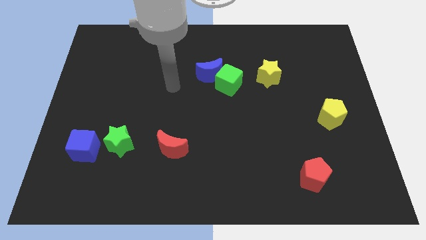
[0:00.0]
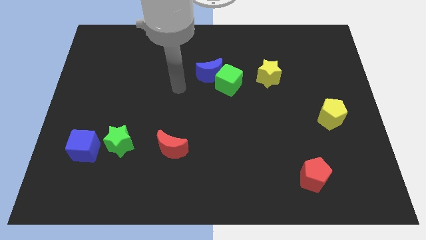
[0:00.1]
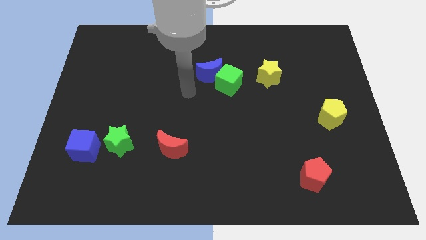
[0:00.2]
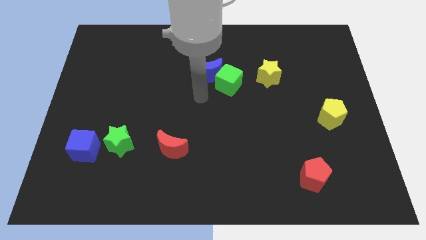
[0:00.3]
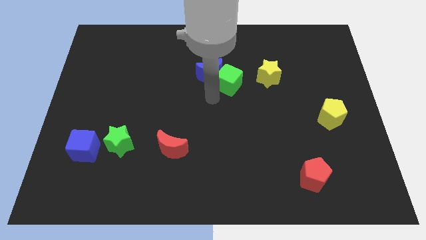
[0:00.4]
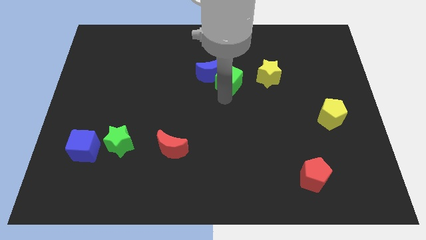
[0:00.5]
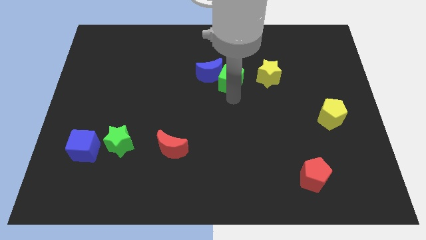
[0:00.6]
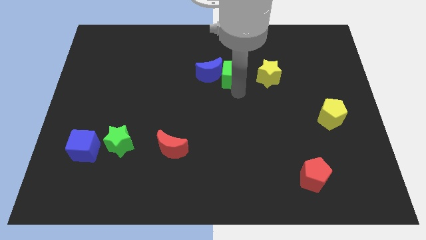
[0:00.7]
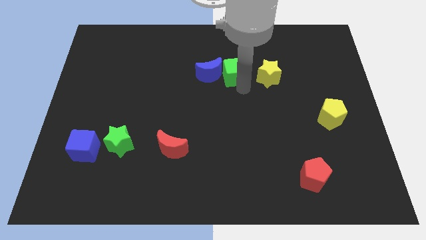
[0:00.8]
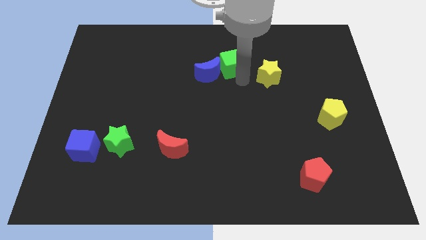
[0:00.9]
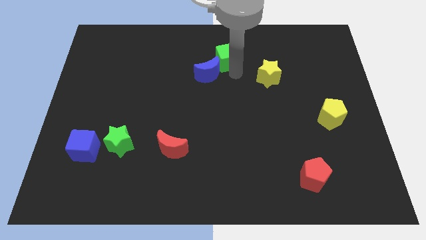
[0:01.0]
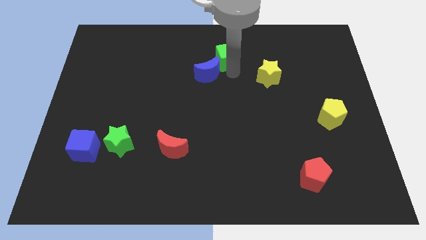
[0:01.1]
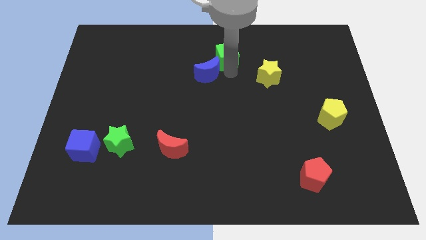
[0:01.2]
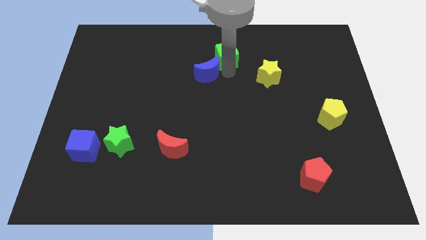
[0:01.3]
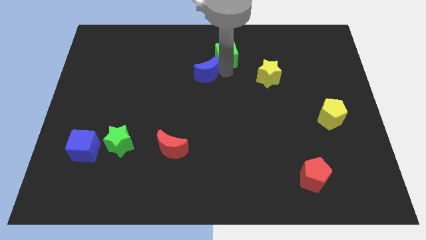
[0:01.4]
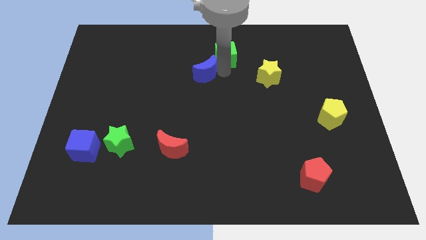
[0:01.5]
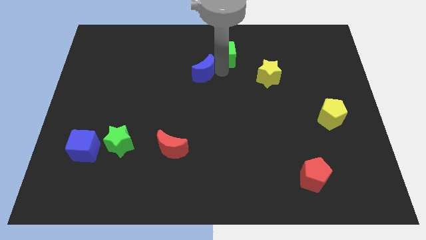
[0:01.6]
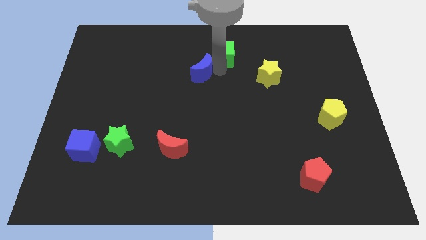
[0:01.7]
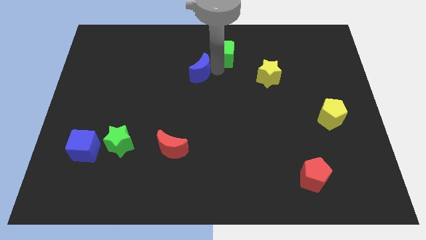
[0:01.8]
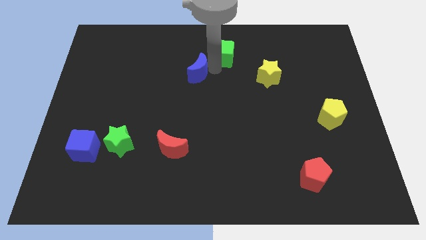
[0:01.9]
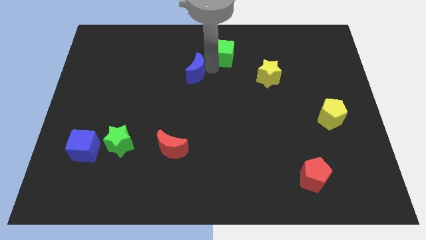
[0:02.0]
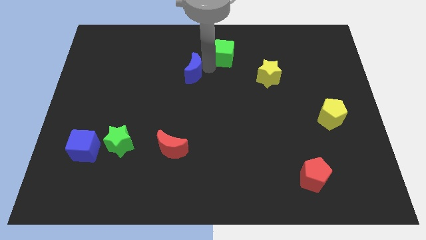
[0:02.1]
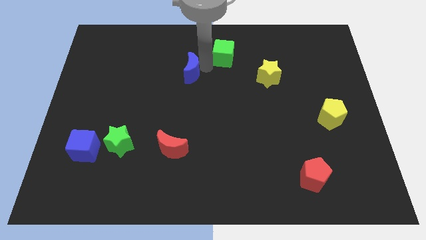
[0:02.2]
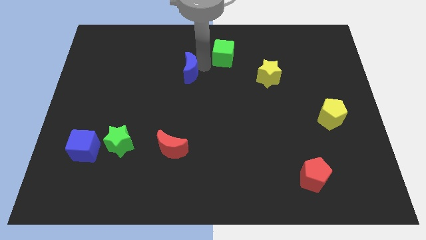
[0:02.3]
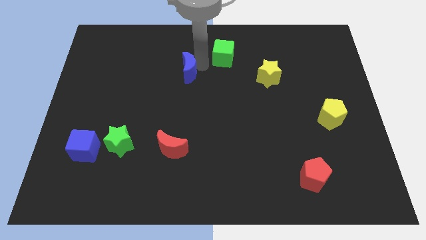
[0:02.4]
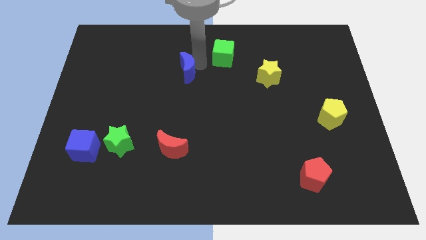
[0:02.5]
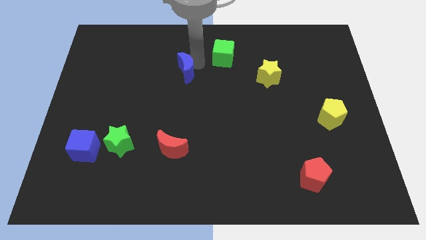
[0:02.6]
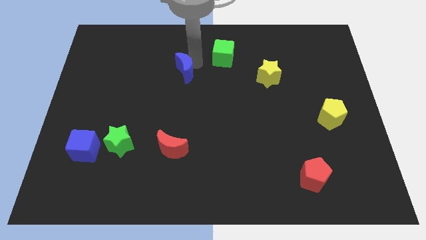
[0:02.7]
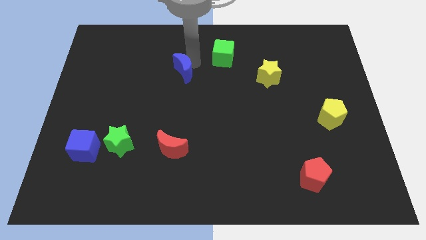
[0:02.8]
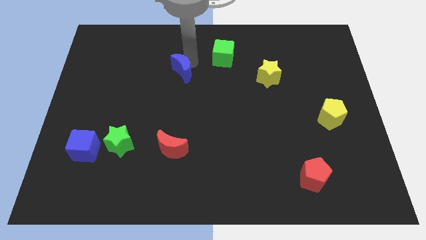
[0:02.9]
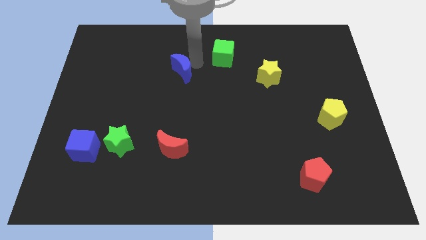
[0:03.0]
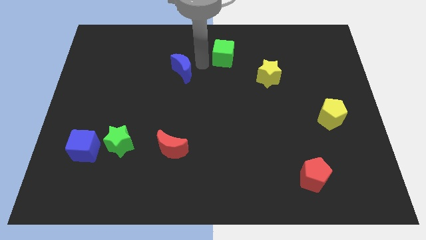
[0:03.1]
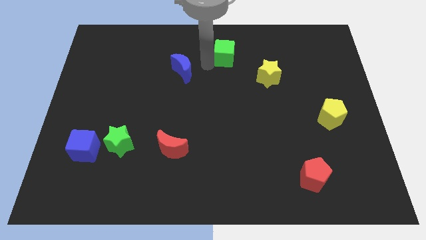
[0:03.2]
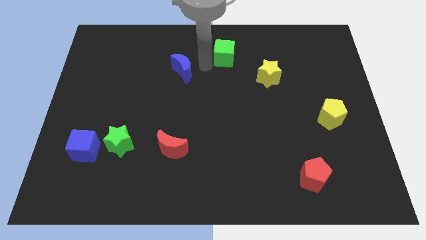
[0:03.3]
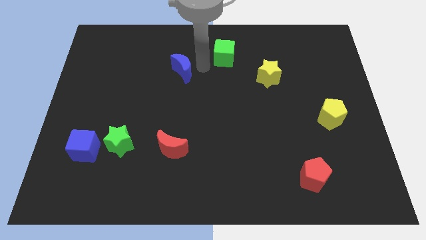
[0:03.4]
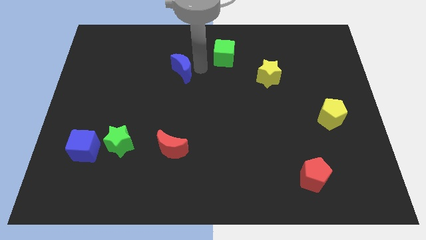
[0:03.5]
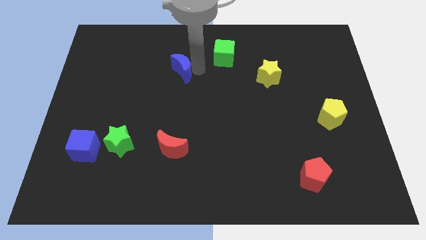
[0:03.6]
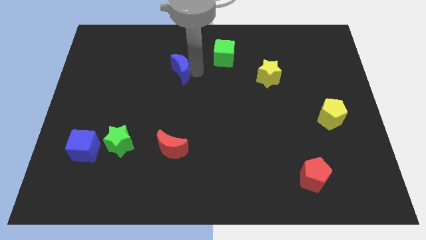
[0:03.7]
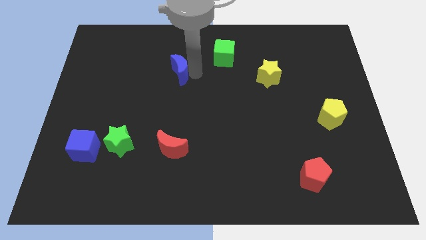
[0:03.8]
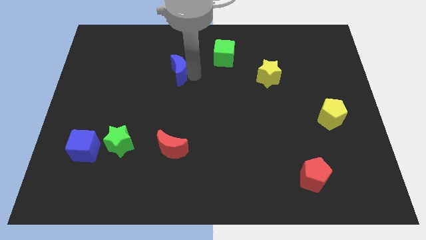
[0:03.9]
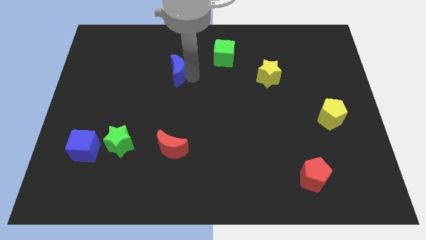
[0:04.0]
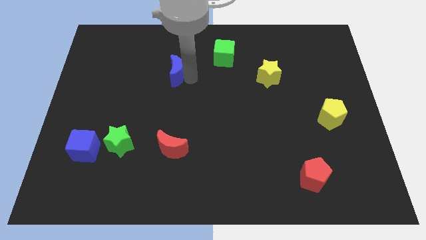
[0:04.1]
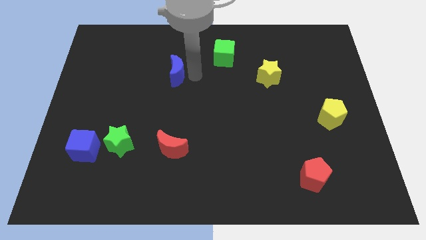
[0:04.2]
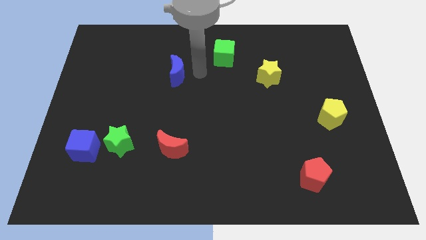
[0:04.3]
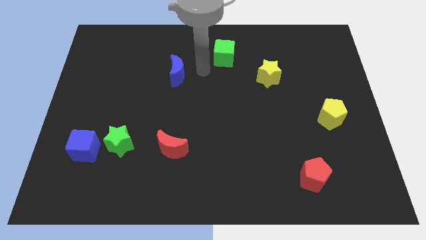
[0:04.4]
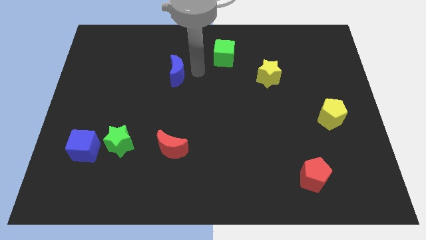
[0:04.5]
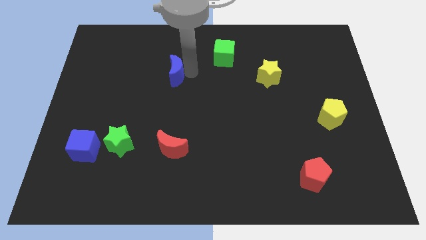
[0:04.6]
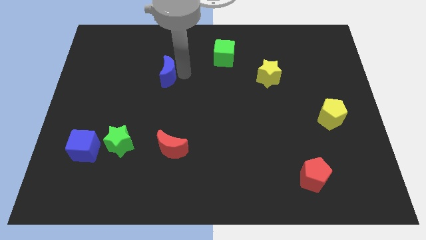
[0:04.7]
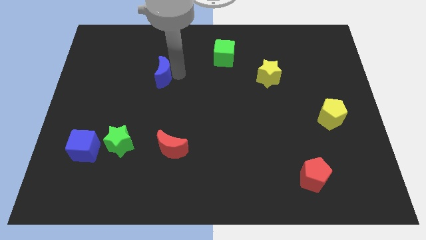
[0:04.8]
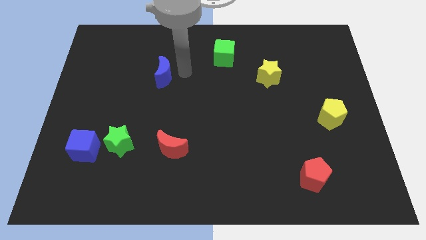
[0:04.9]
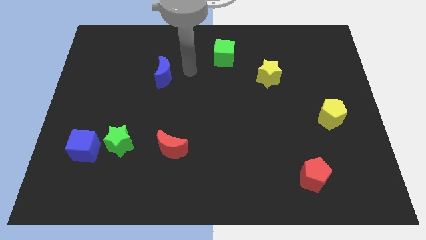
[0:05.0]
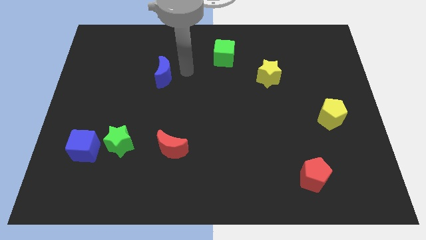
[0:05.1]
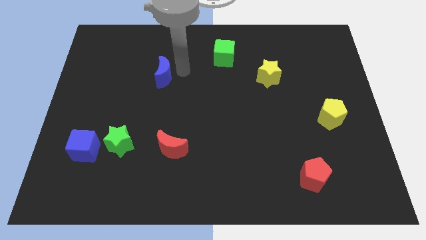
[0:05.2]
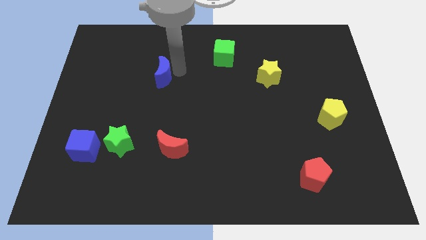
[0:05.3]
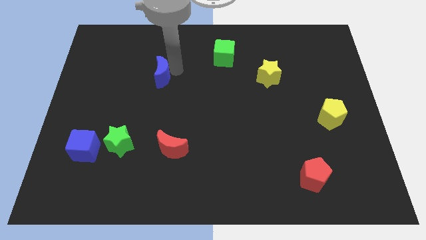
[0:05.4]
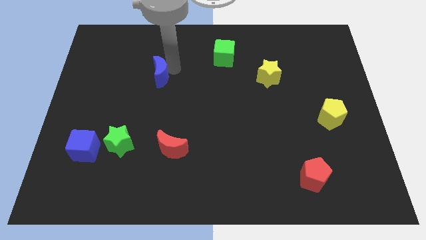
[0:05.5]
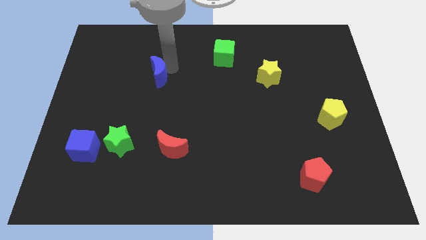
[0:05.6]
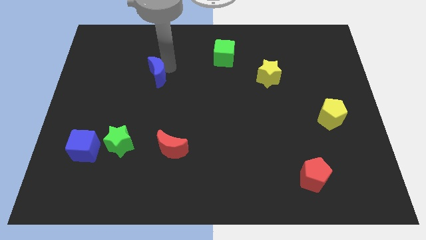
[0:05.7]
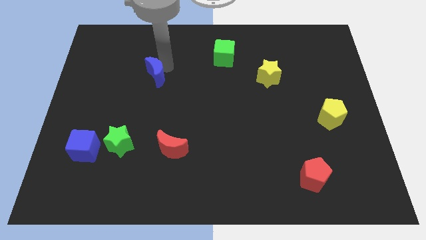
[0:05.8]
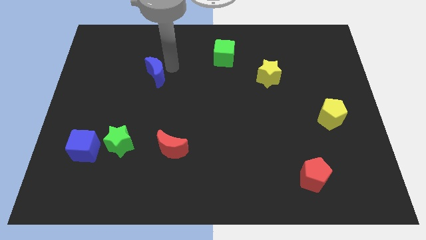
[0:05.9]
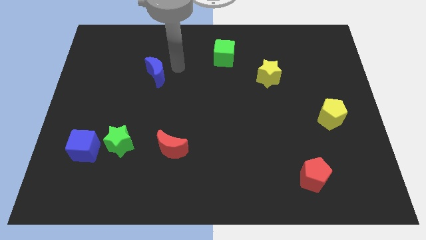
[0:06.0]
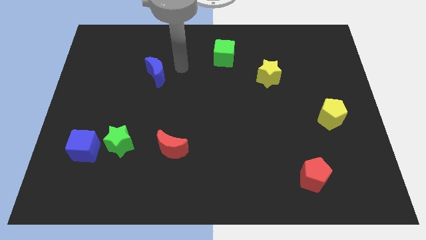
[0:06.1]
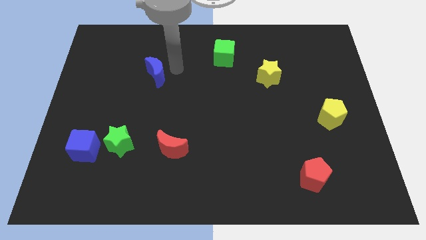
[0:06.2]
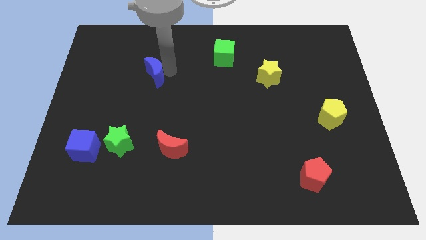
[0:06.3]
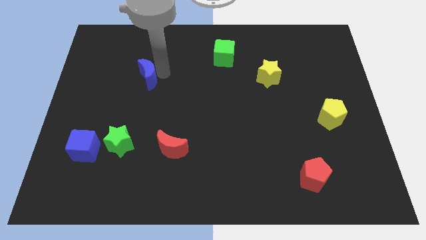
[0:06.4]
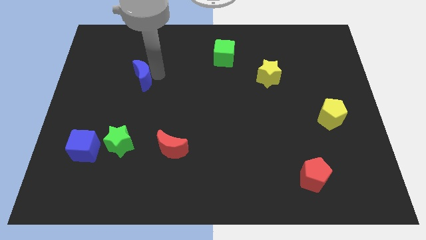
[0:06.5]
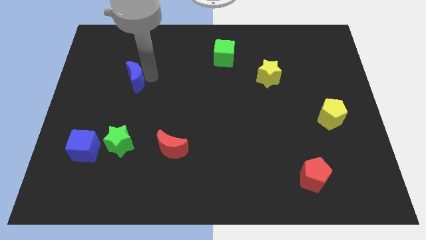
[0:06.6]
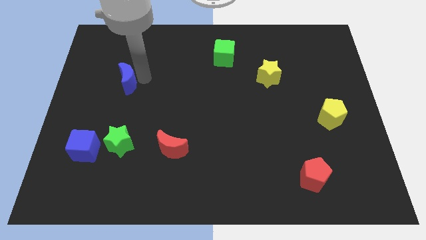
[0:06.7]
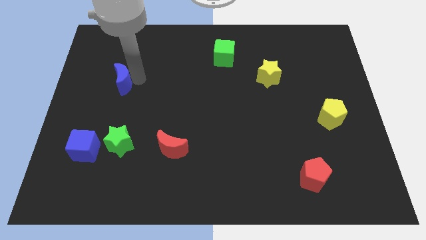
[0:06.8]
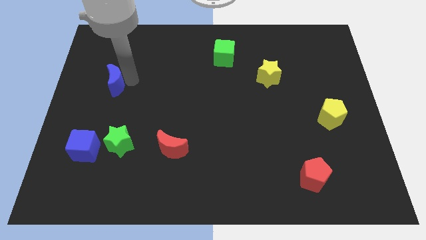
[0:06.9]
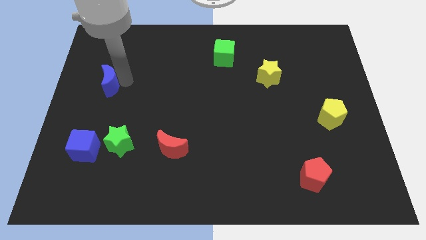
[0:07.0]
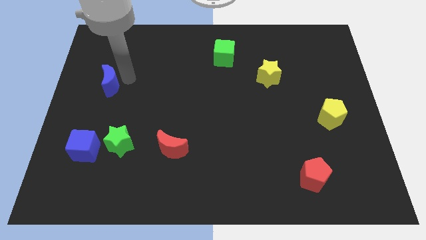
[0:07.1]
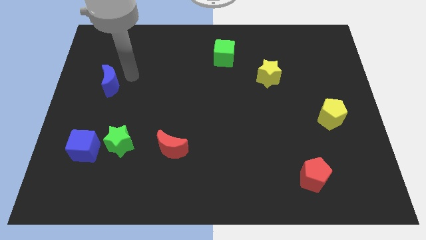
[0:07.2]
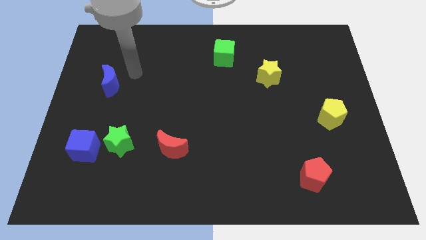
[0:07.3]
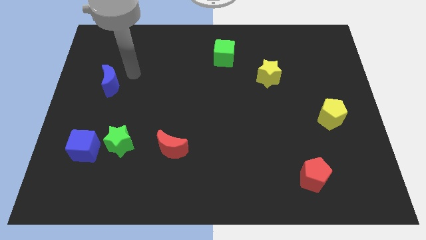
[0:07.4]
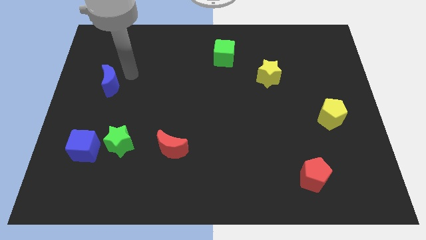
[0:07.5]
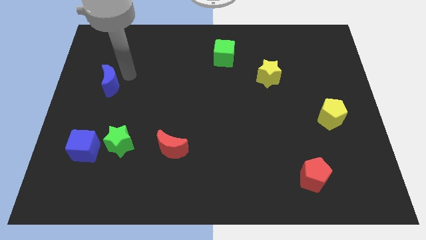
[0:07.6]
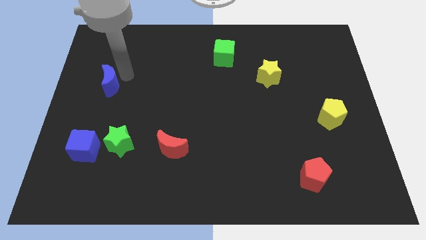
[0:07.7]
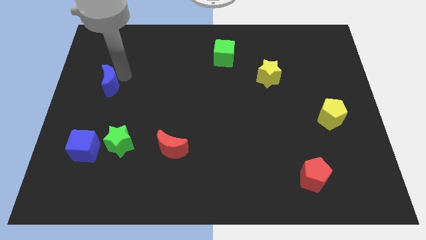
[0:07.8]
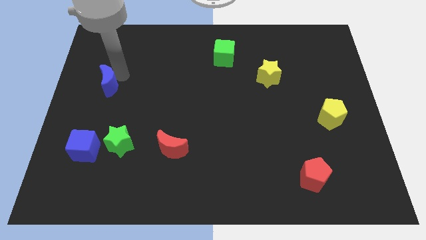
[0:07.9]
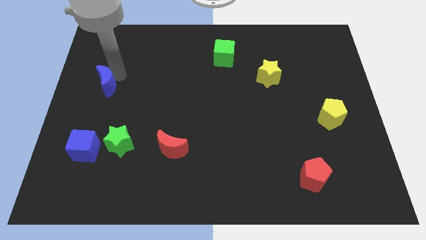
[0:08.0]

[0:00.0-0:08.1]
push the blue moon to the center left
